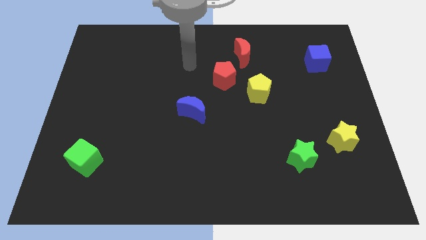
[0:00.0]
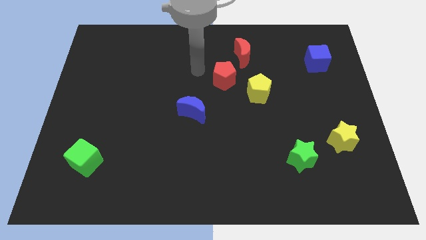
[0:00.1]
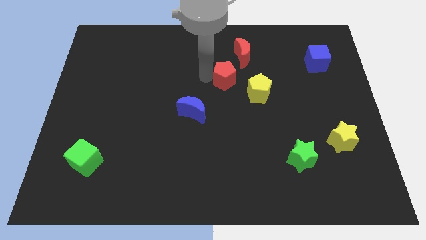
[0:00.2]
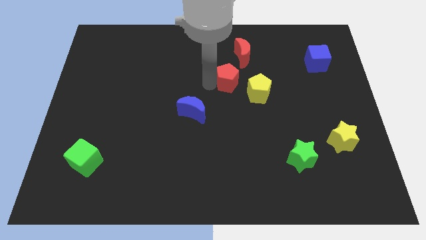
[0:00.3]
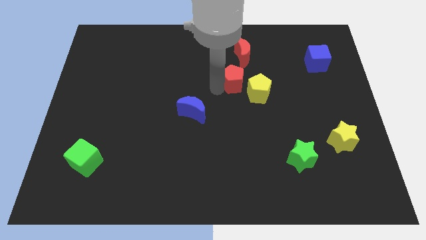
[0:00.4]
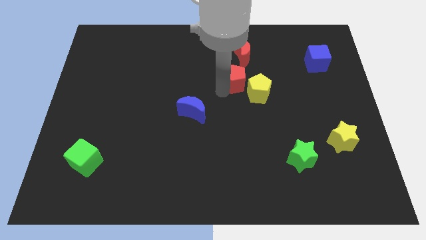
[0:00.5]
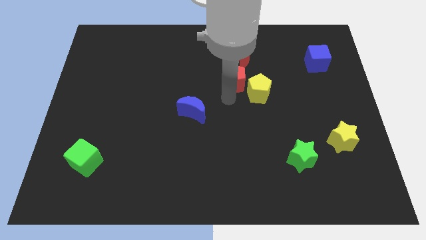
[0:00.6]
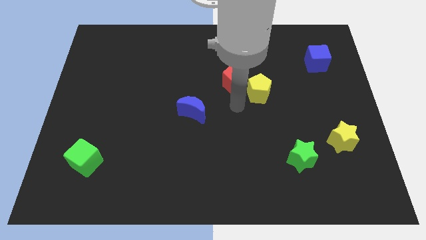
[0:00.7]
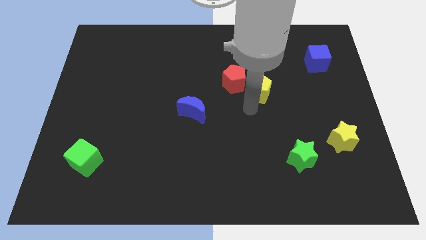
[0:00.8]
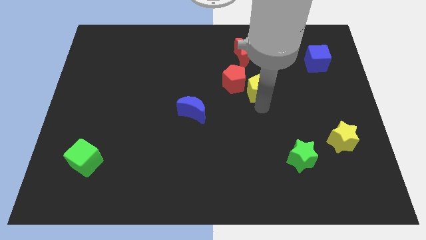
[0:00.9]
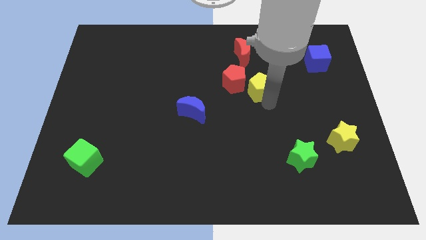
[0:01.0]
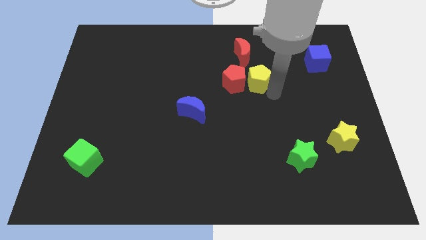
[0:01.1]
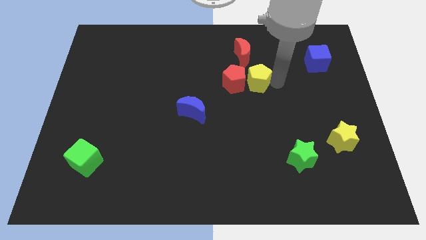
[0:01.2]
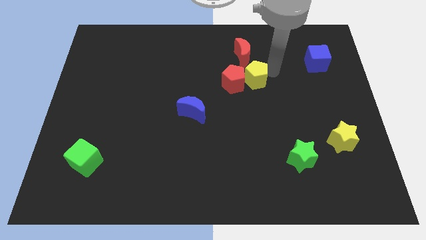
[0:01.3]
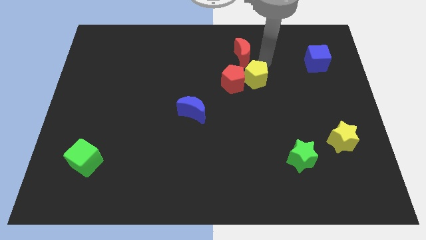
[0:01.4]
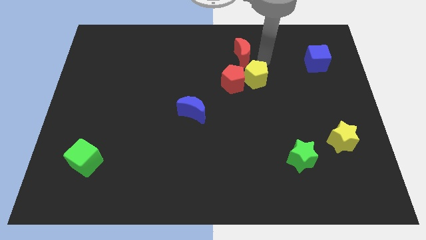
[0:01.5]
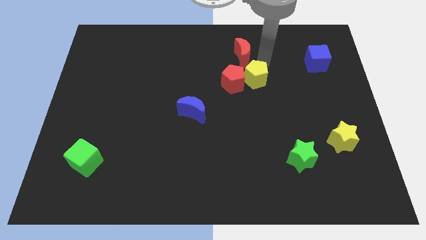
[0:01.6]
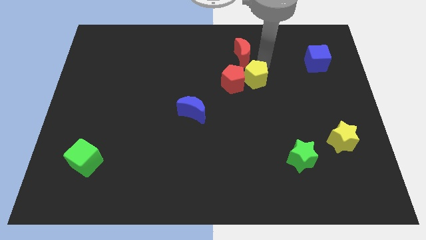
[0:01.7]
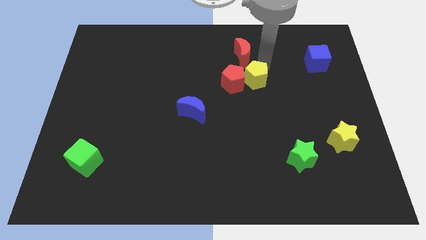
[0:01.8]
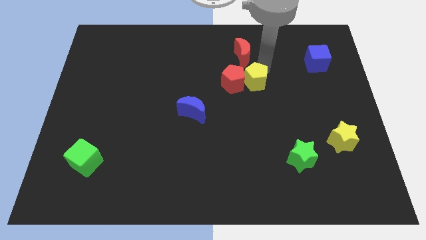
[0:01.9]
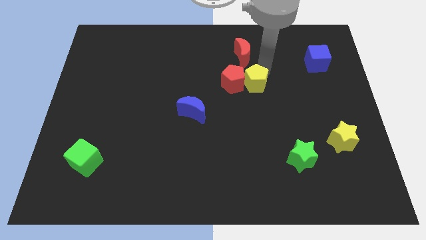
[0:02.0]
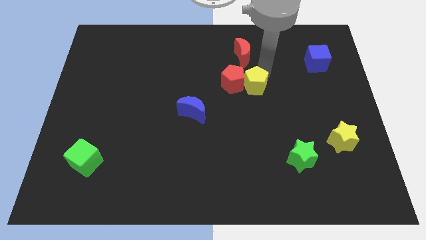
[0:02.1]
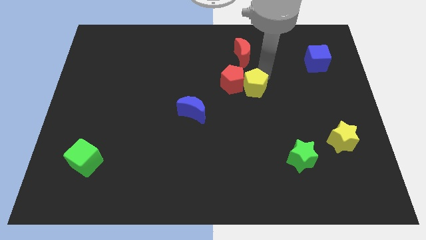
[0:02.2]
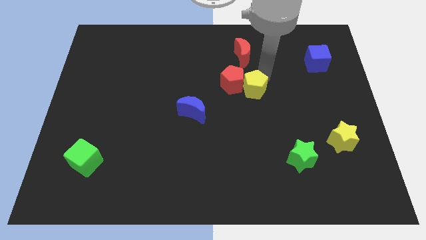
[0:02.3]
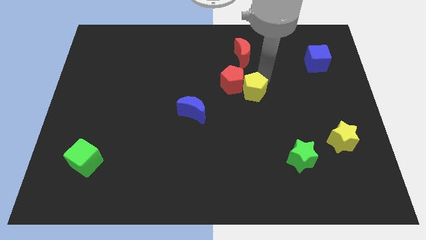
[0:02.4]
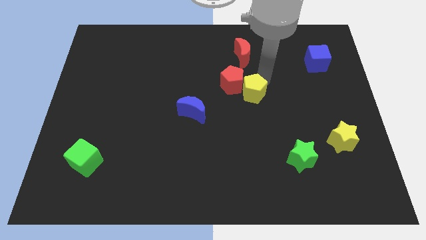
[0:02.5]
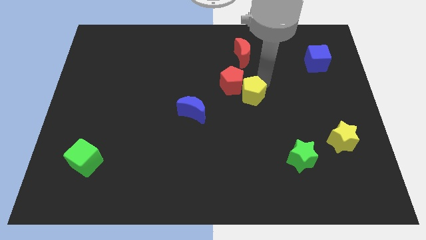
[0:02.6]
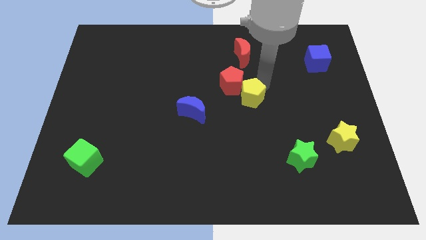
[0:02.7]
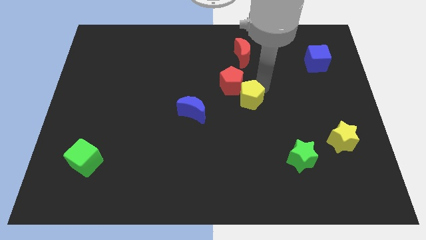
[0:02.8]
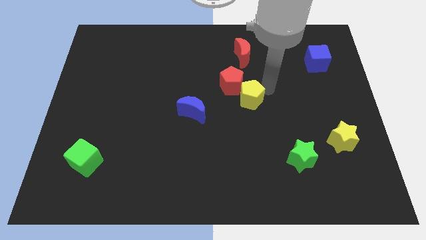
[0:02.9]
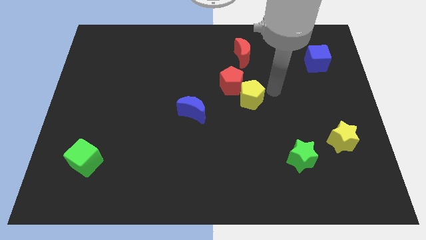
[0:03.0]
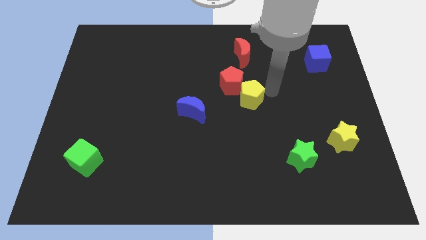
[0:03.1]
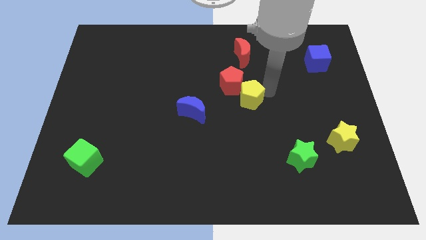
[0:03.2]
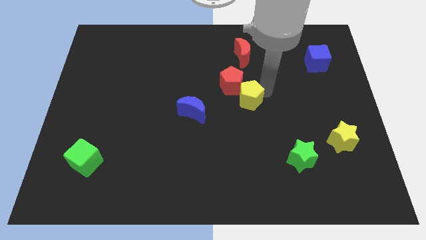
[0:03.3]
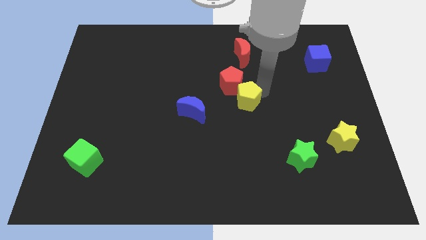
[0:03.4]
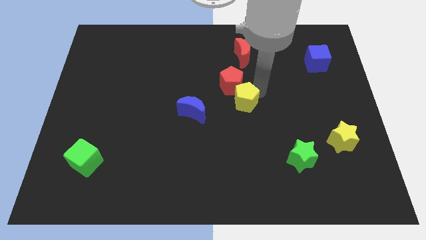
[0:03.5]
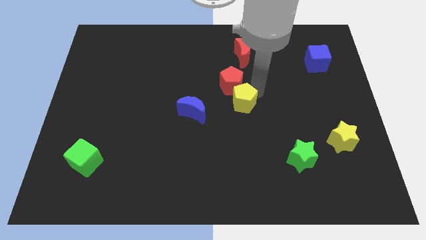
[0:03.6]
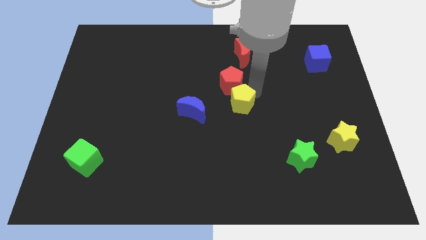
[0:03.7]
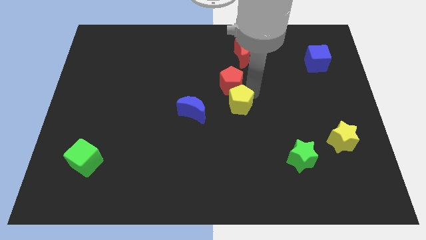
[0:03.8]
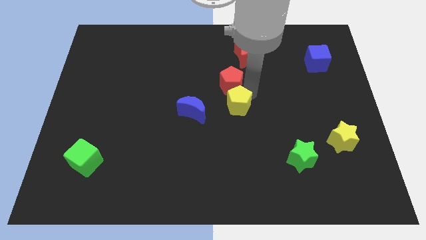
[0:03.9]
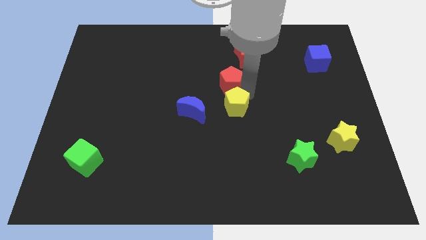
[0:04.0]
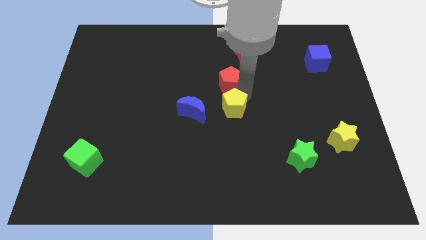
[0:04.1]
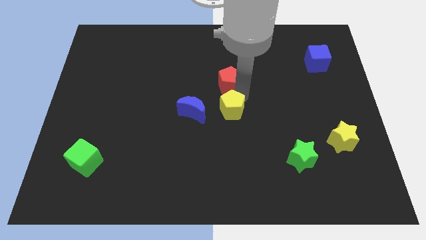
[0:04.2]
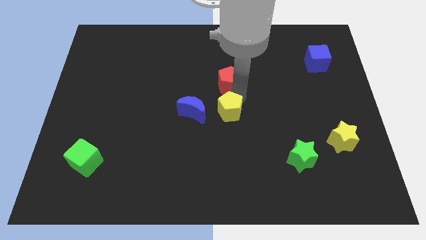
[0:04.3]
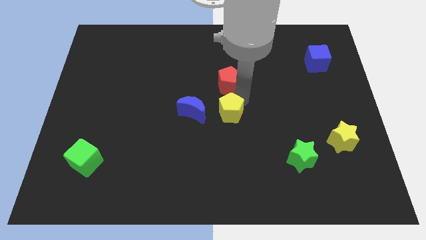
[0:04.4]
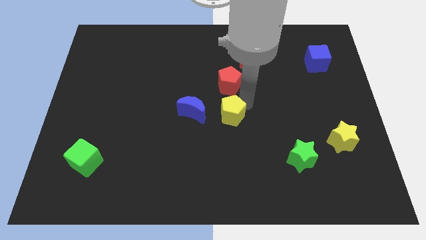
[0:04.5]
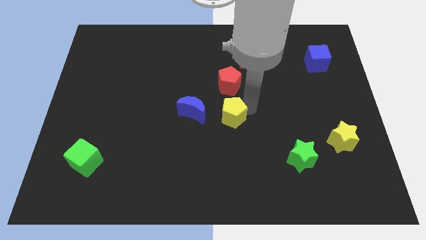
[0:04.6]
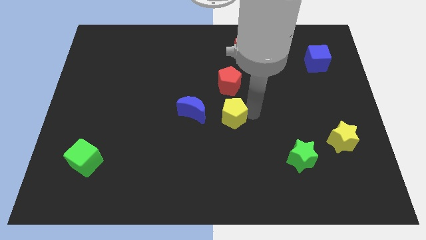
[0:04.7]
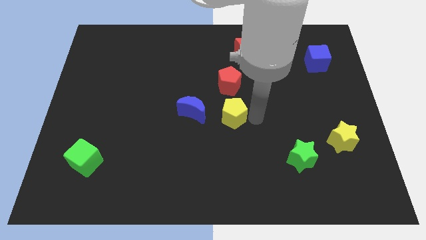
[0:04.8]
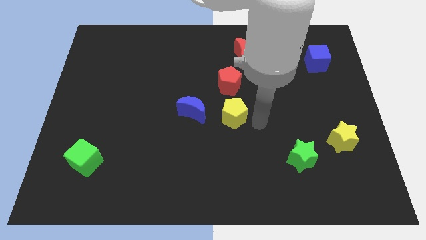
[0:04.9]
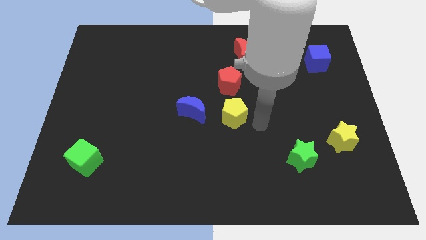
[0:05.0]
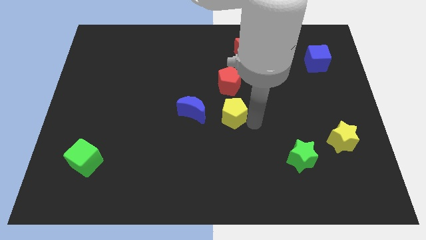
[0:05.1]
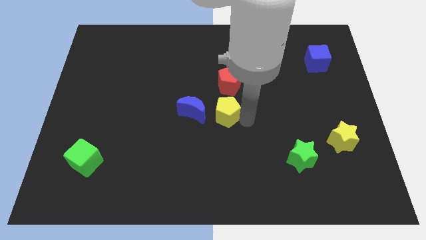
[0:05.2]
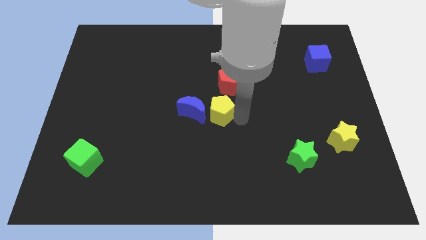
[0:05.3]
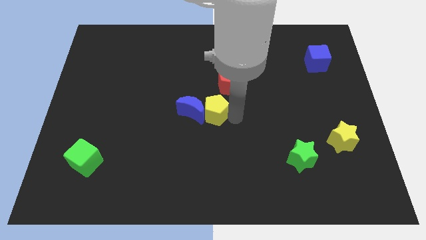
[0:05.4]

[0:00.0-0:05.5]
slide the yellow pentagon to the blue moon

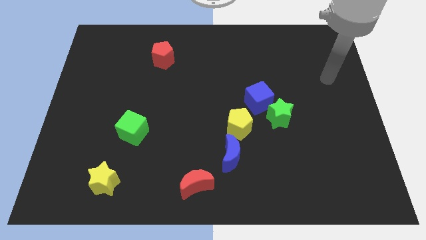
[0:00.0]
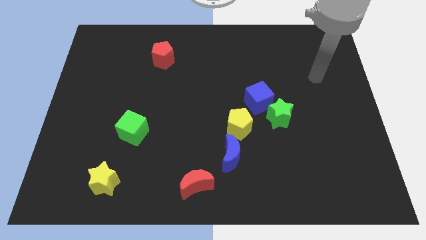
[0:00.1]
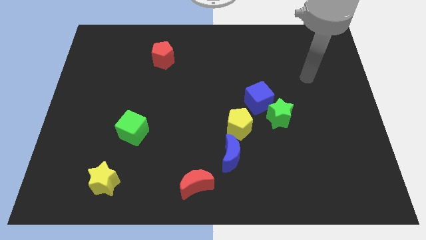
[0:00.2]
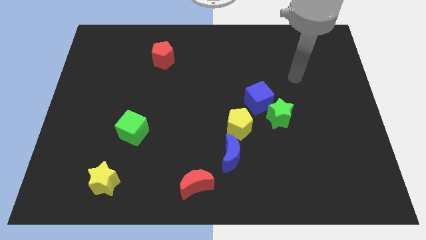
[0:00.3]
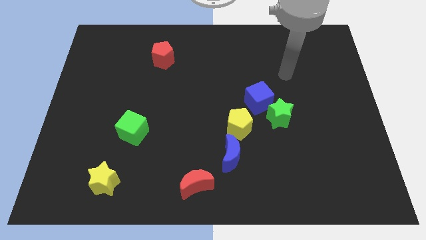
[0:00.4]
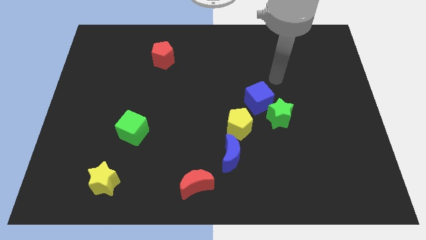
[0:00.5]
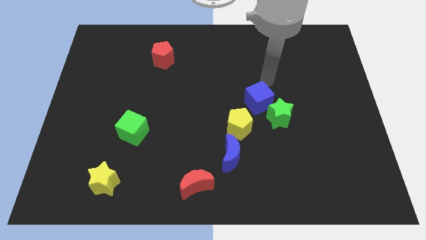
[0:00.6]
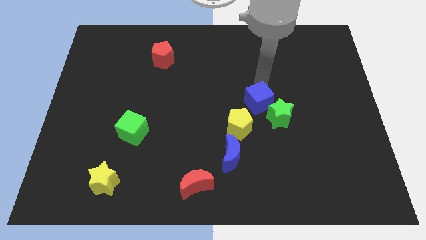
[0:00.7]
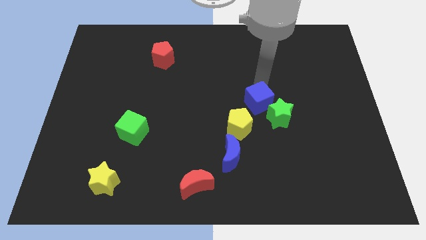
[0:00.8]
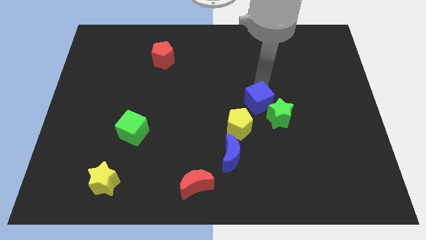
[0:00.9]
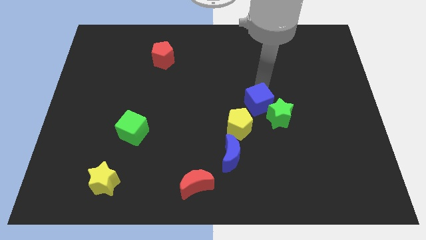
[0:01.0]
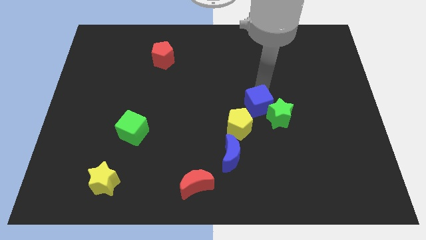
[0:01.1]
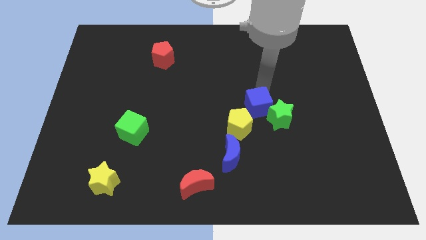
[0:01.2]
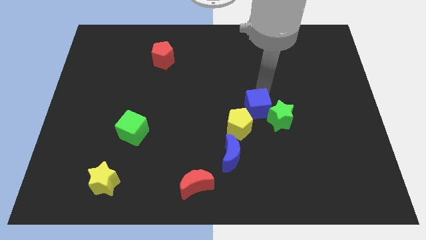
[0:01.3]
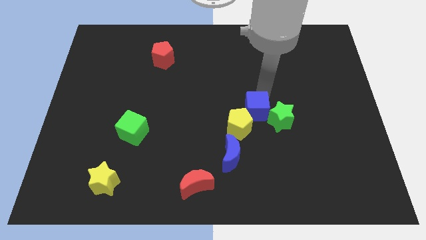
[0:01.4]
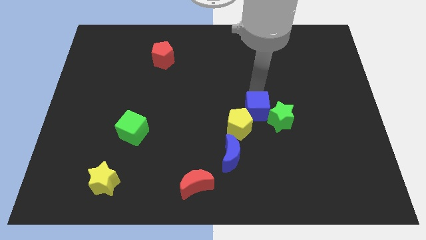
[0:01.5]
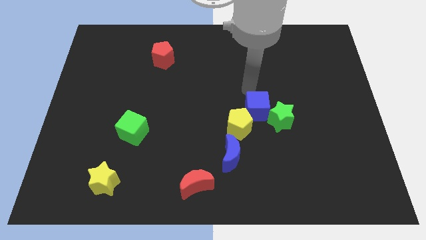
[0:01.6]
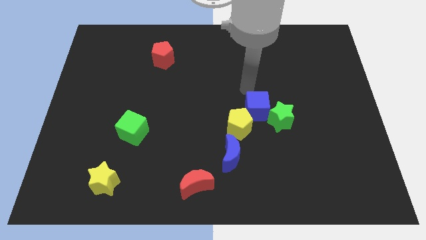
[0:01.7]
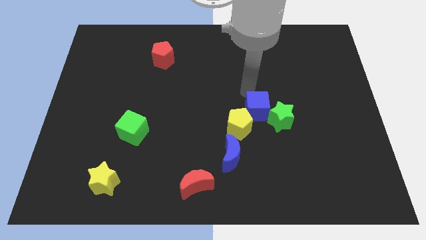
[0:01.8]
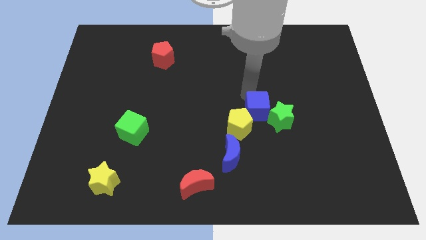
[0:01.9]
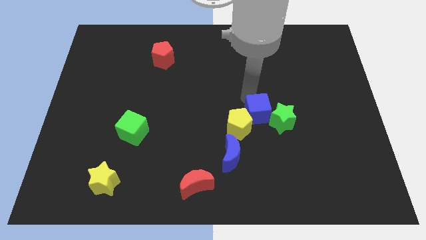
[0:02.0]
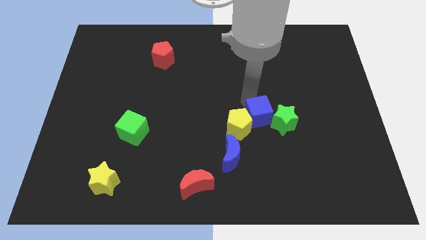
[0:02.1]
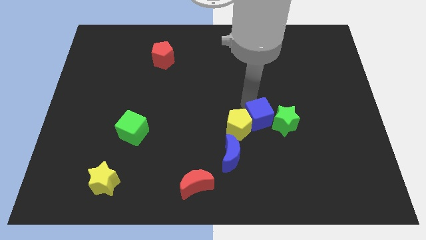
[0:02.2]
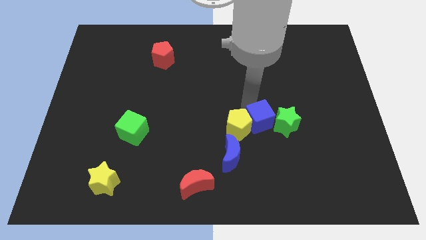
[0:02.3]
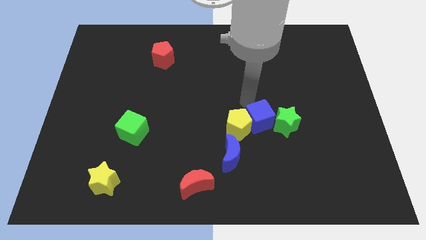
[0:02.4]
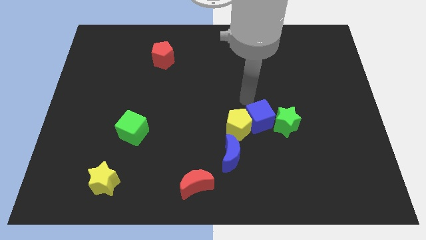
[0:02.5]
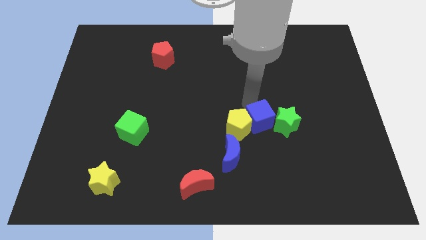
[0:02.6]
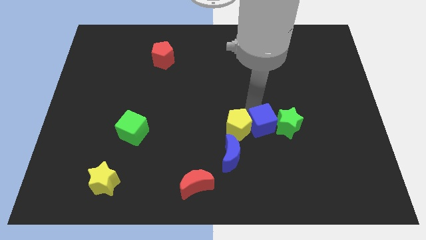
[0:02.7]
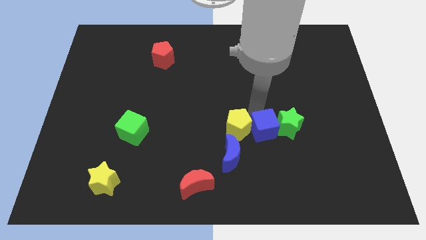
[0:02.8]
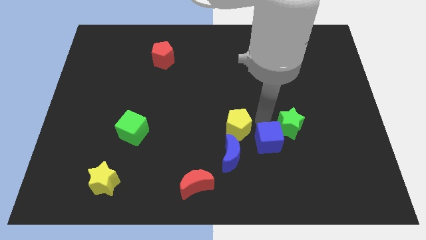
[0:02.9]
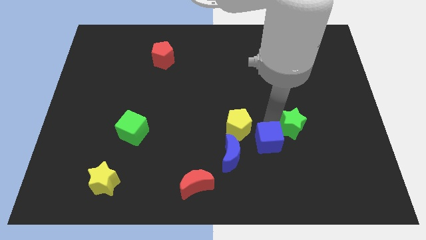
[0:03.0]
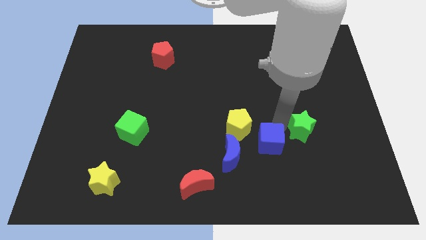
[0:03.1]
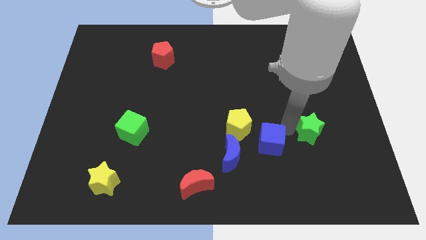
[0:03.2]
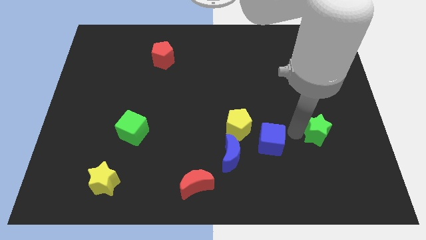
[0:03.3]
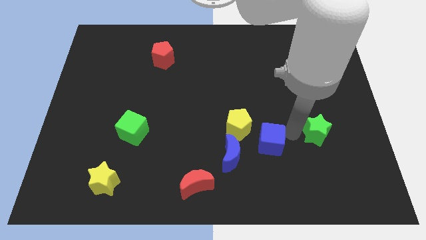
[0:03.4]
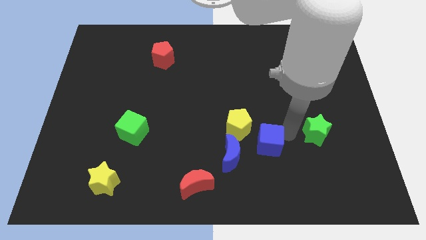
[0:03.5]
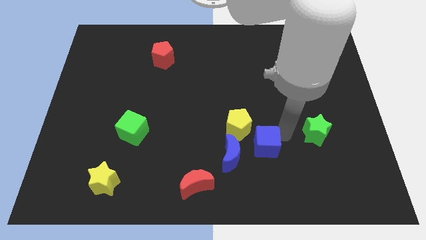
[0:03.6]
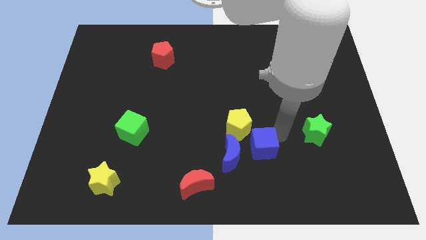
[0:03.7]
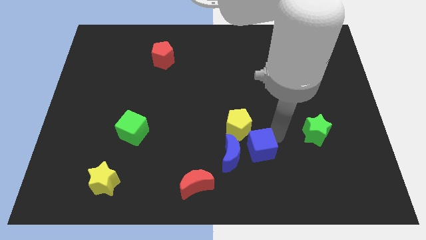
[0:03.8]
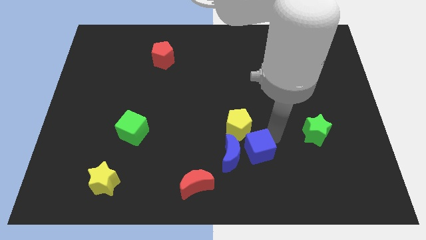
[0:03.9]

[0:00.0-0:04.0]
move the blue cube to the blue moon
